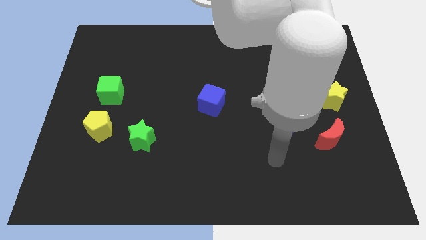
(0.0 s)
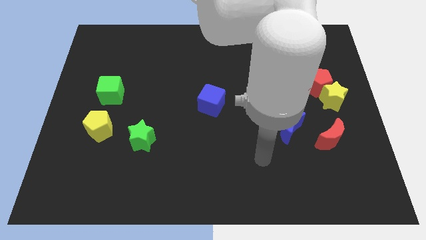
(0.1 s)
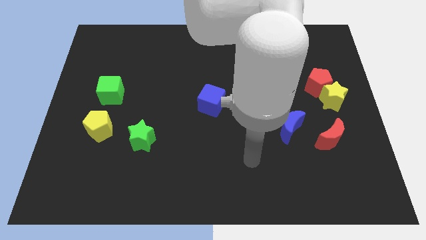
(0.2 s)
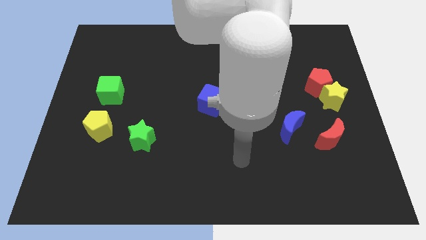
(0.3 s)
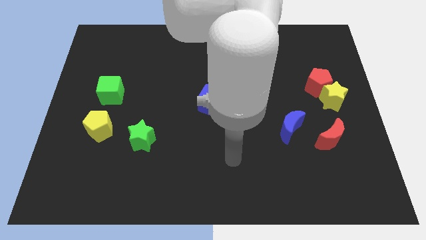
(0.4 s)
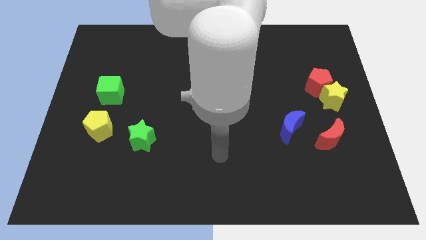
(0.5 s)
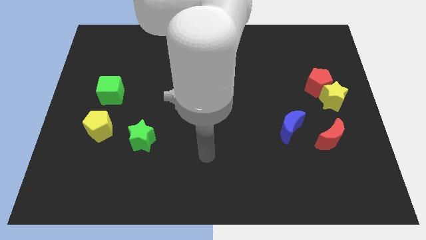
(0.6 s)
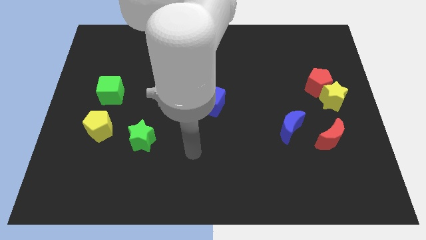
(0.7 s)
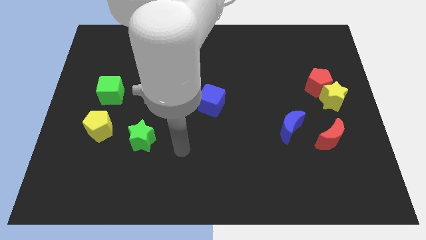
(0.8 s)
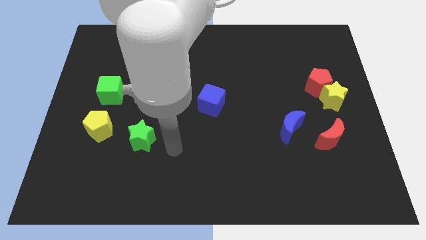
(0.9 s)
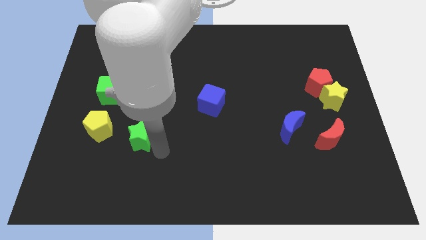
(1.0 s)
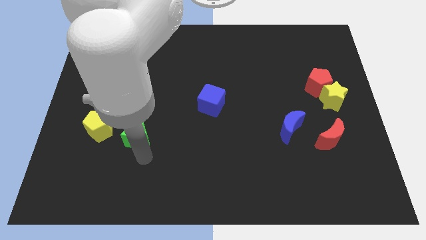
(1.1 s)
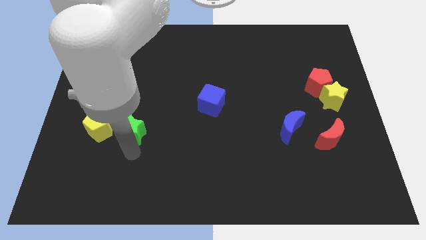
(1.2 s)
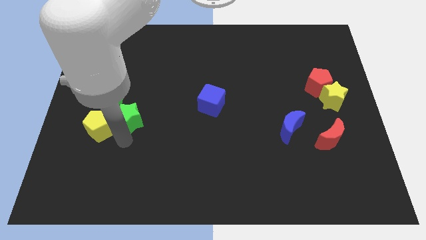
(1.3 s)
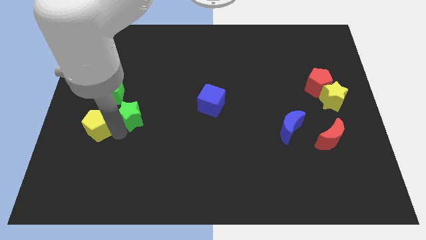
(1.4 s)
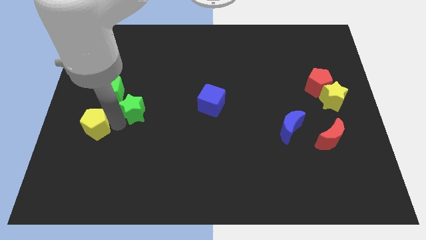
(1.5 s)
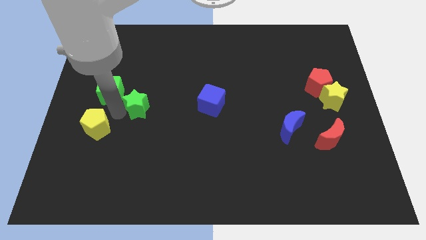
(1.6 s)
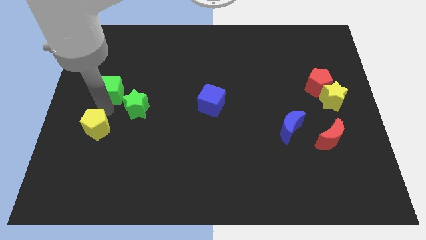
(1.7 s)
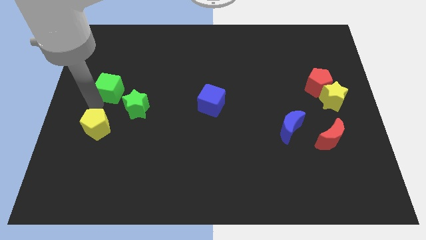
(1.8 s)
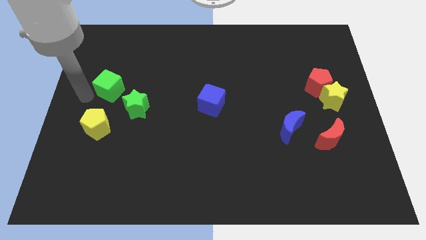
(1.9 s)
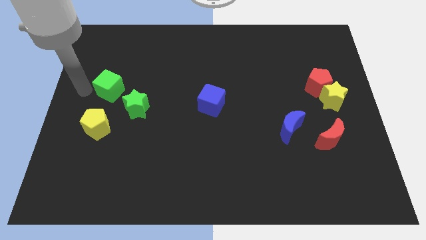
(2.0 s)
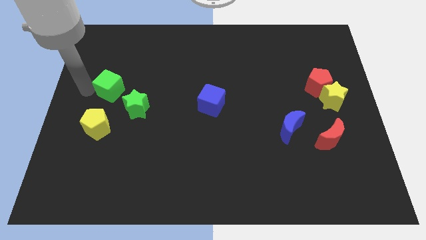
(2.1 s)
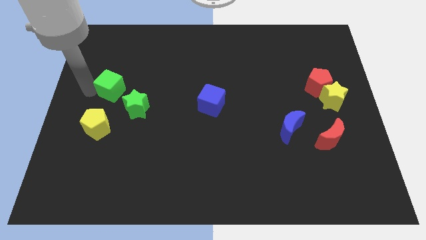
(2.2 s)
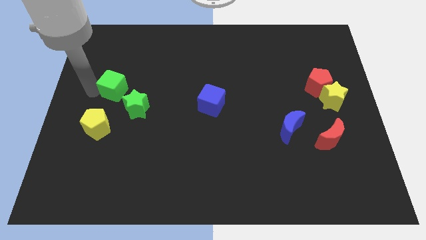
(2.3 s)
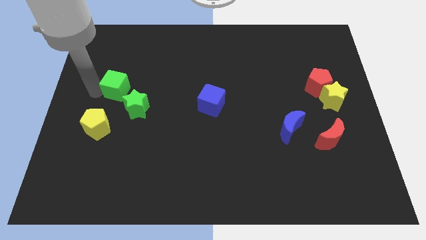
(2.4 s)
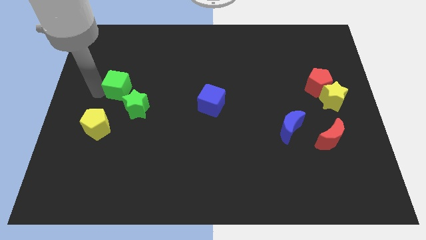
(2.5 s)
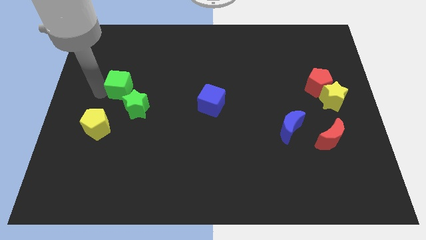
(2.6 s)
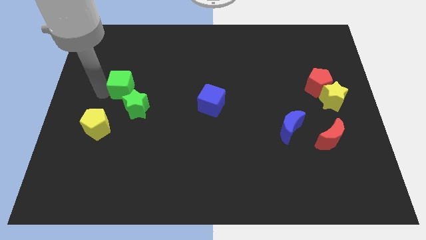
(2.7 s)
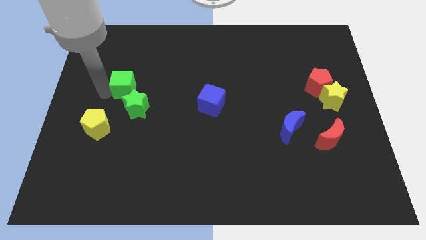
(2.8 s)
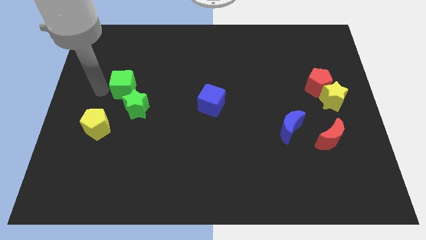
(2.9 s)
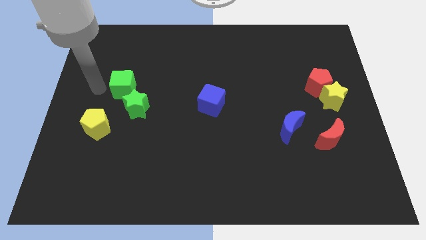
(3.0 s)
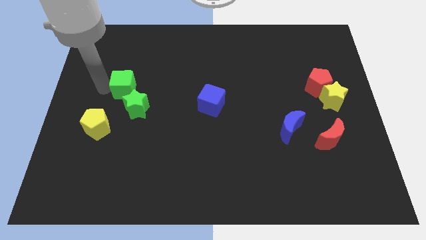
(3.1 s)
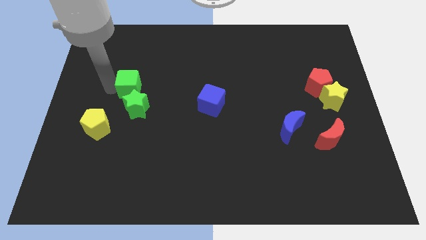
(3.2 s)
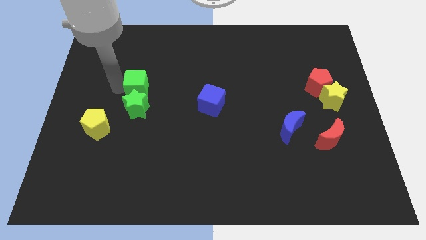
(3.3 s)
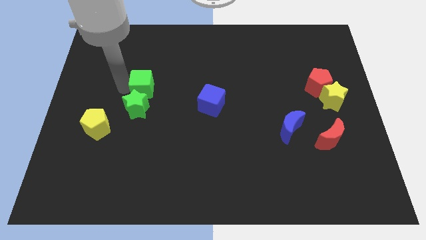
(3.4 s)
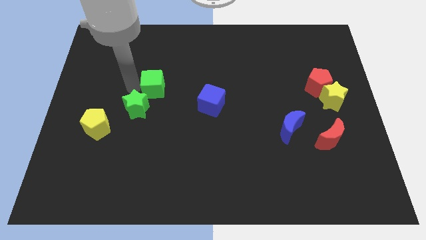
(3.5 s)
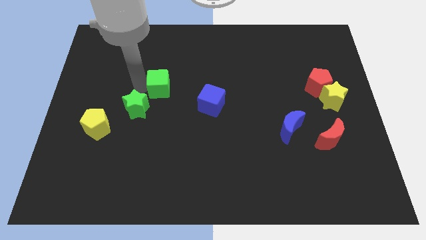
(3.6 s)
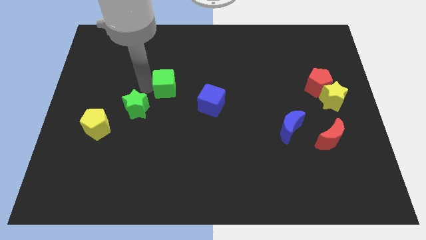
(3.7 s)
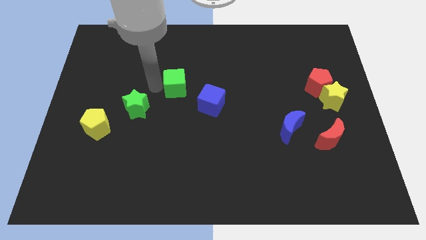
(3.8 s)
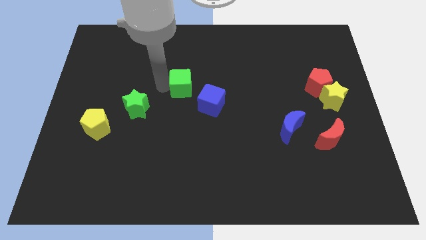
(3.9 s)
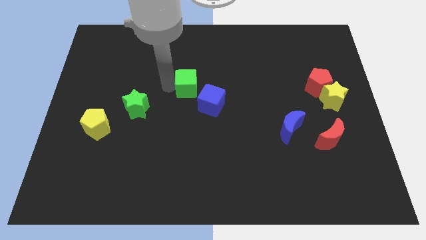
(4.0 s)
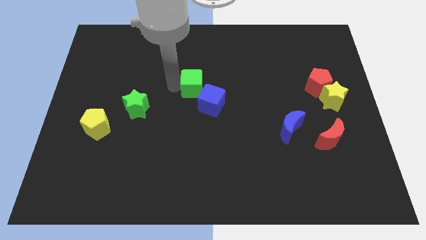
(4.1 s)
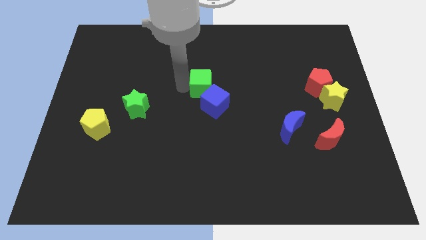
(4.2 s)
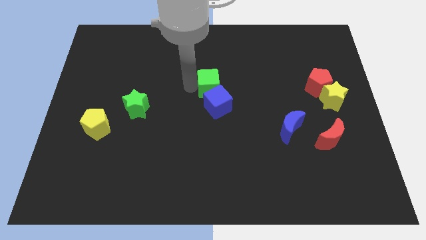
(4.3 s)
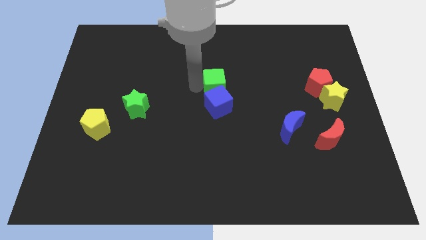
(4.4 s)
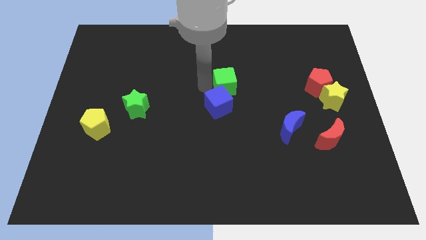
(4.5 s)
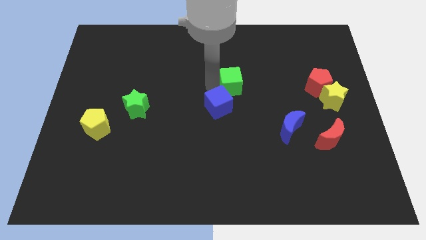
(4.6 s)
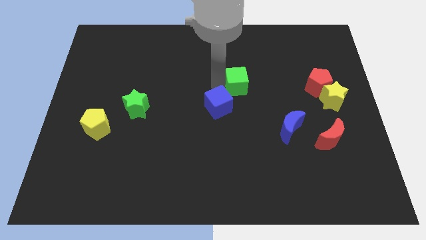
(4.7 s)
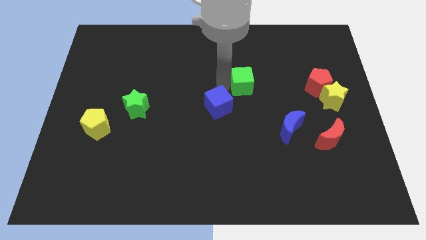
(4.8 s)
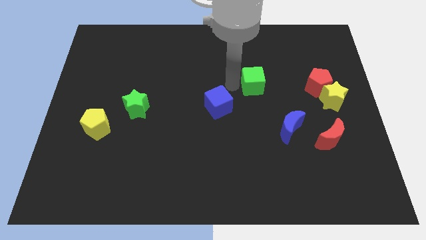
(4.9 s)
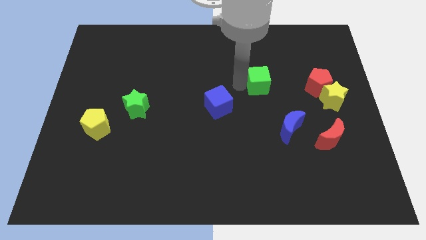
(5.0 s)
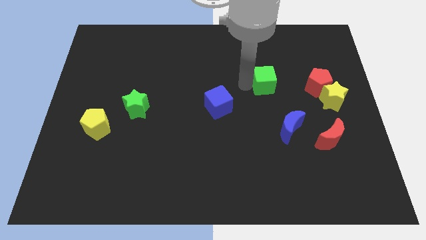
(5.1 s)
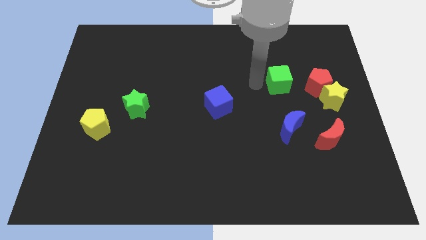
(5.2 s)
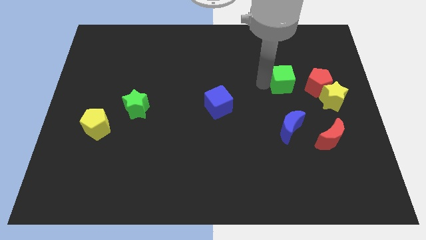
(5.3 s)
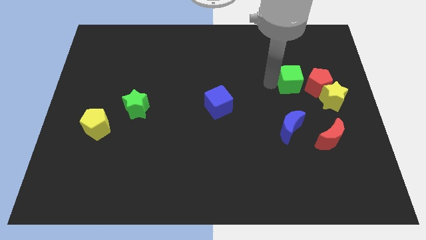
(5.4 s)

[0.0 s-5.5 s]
move the green cube to the top left of the yellow star

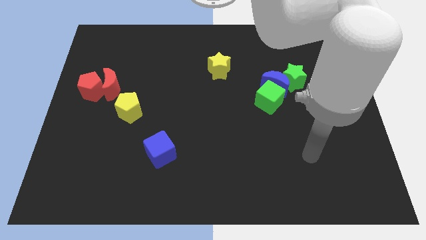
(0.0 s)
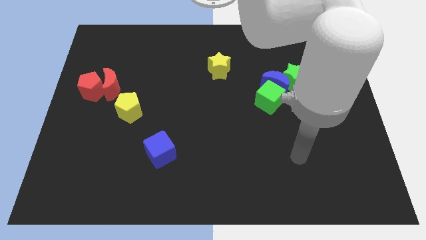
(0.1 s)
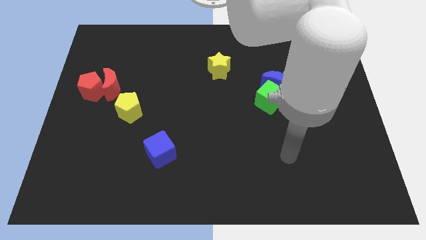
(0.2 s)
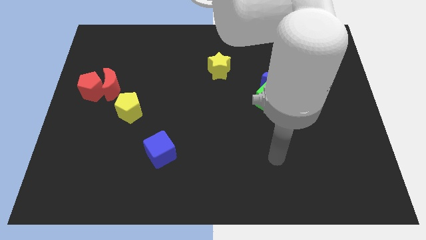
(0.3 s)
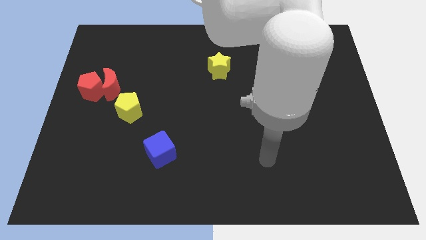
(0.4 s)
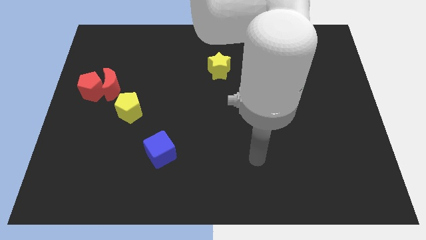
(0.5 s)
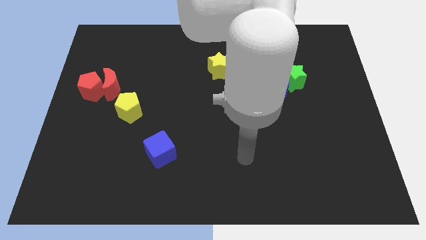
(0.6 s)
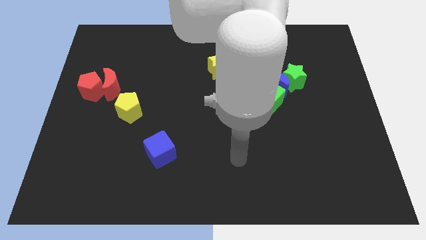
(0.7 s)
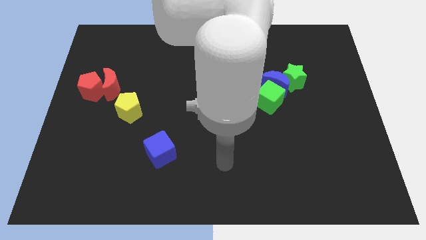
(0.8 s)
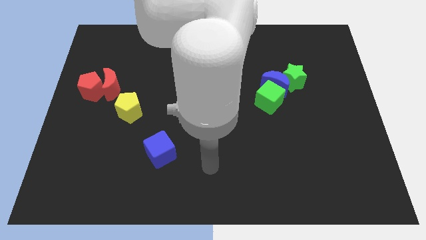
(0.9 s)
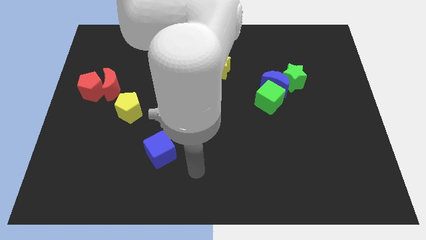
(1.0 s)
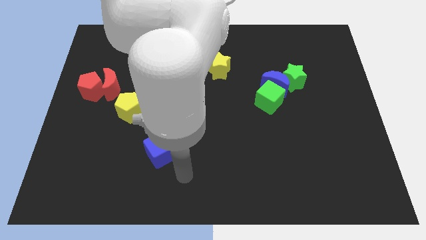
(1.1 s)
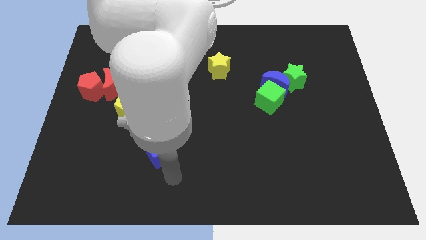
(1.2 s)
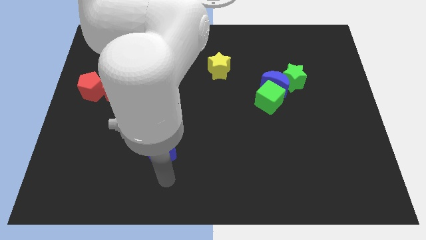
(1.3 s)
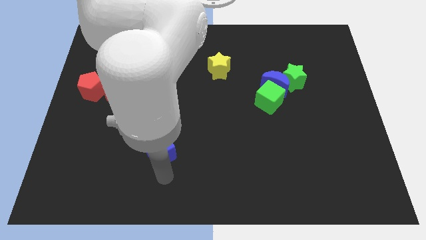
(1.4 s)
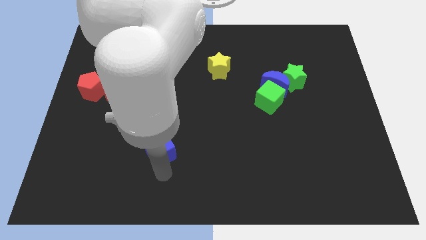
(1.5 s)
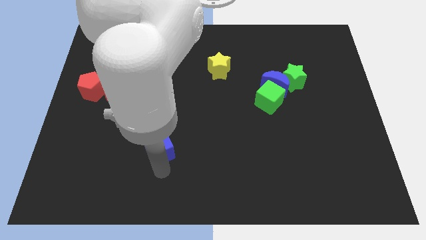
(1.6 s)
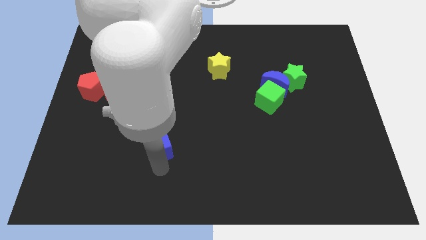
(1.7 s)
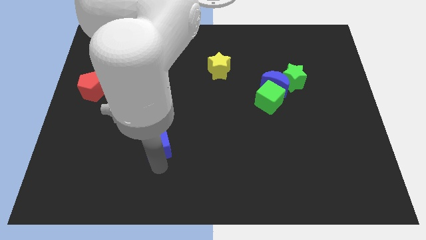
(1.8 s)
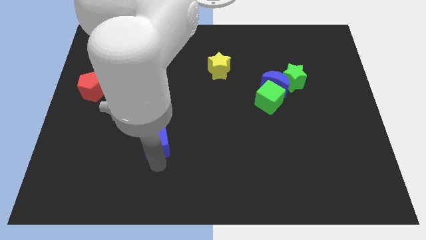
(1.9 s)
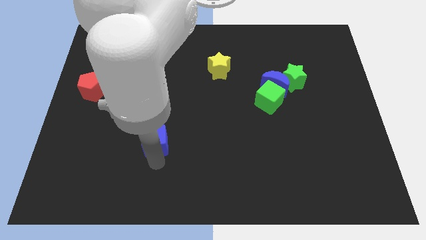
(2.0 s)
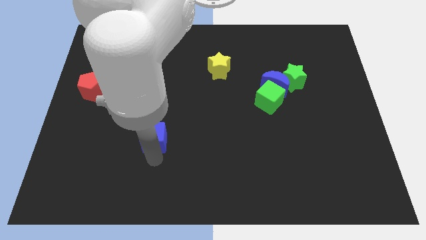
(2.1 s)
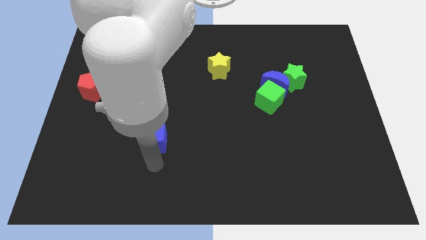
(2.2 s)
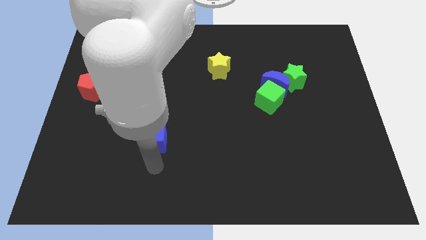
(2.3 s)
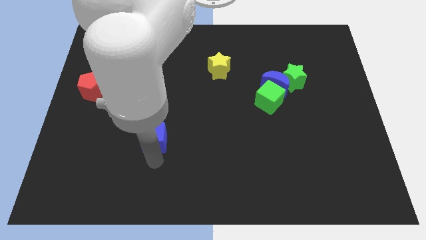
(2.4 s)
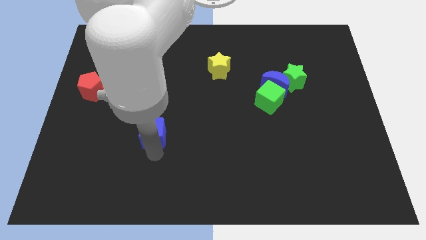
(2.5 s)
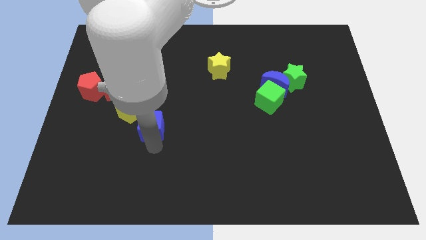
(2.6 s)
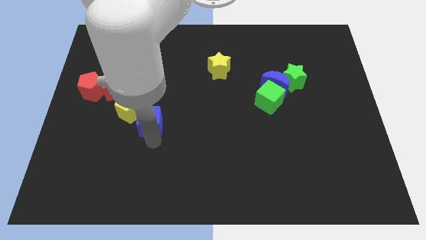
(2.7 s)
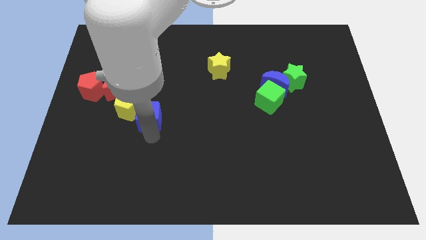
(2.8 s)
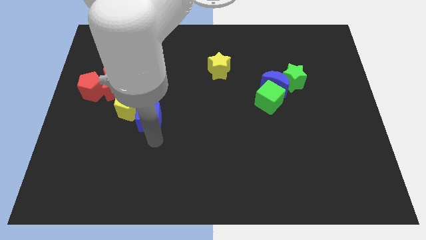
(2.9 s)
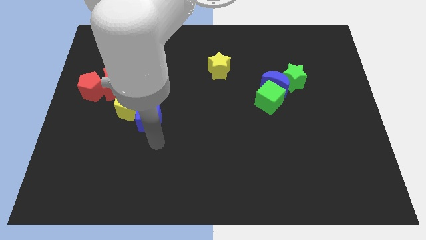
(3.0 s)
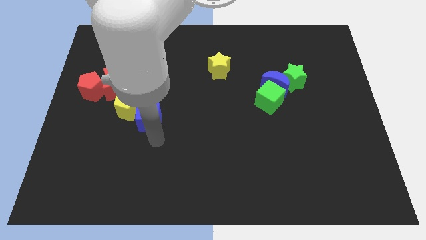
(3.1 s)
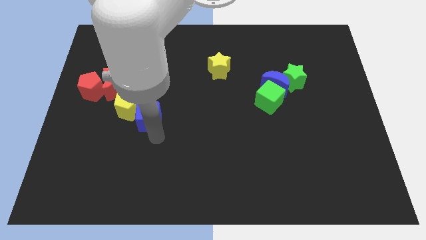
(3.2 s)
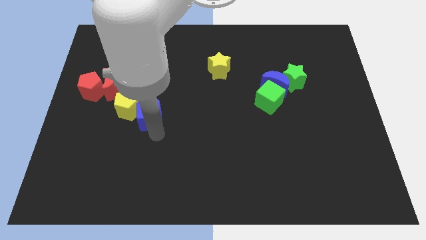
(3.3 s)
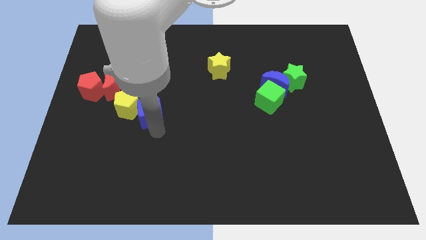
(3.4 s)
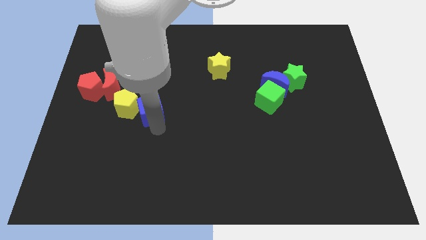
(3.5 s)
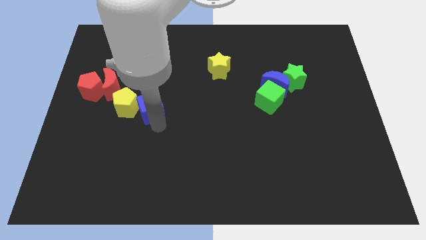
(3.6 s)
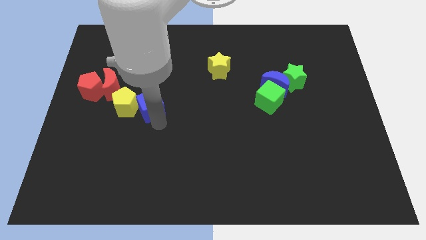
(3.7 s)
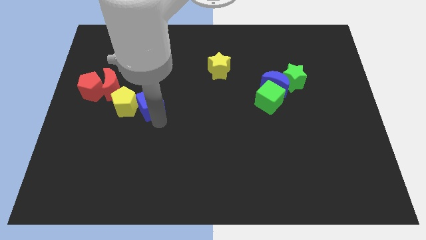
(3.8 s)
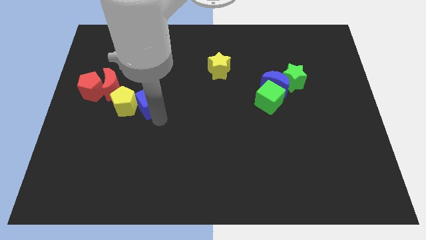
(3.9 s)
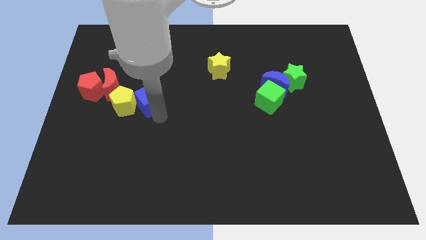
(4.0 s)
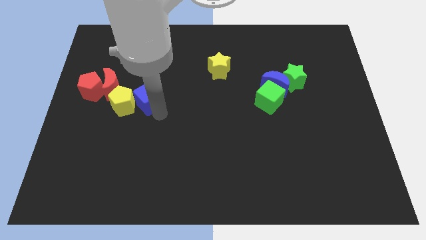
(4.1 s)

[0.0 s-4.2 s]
slide the blue cube to the right of the red pentagon
